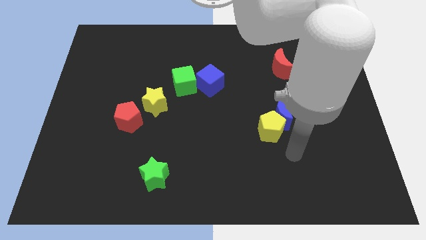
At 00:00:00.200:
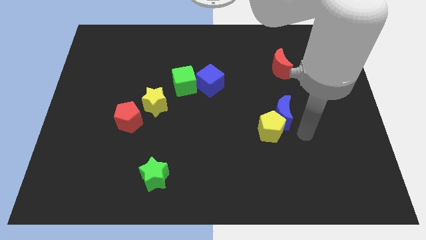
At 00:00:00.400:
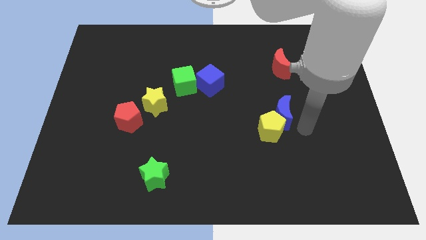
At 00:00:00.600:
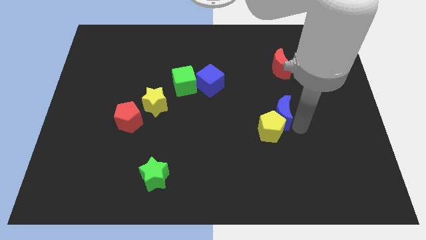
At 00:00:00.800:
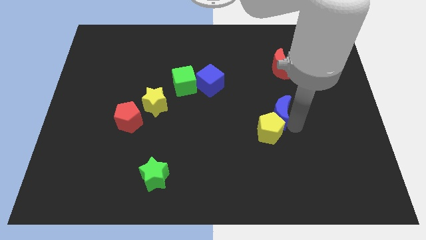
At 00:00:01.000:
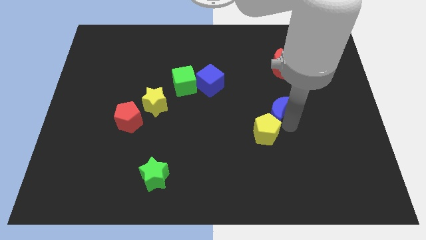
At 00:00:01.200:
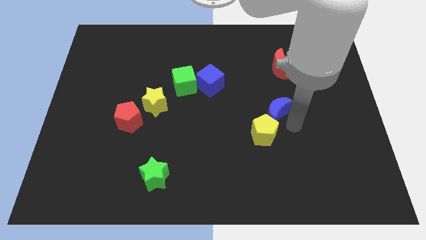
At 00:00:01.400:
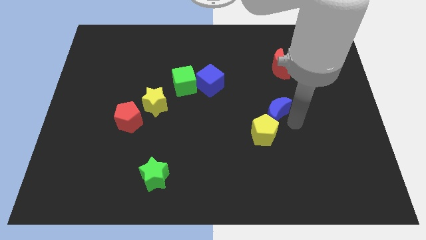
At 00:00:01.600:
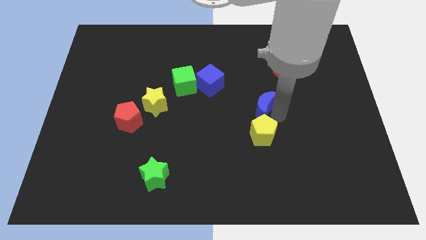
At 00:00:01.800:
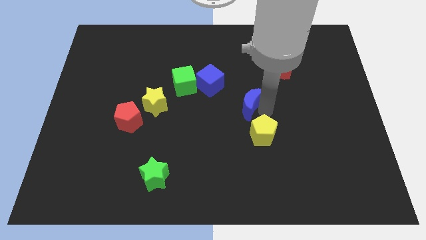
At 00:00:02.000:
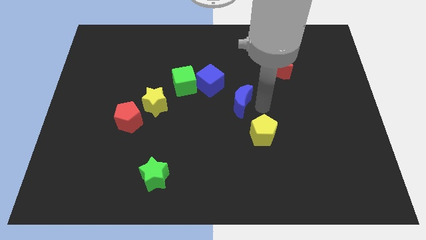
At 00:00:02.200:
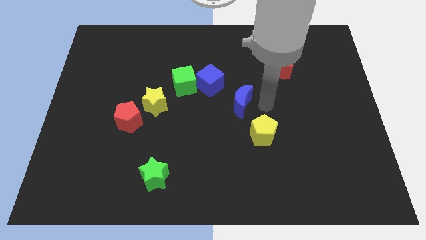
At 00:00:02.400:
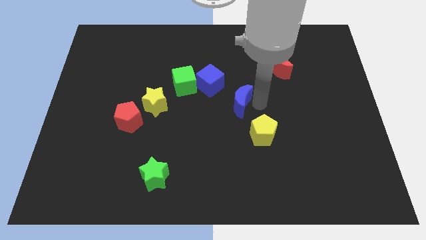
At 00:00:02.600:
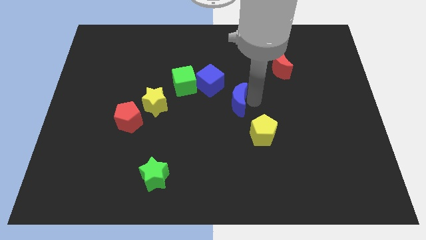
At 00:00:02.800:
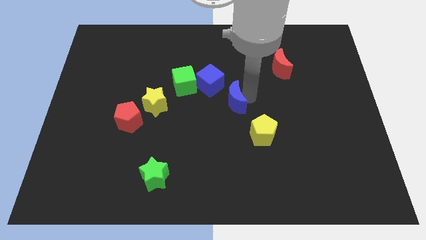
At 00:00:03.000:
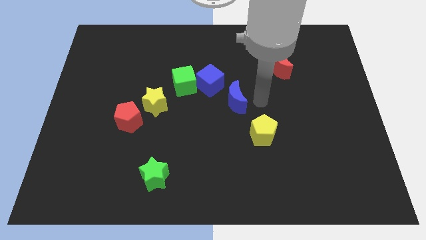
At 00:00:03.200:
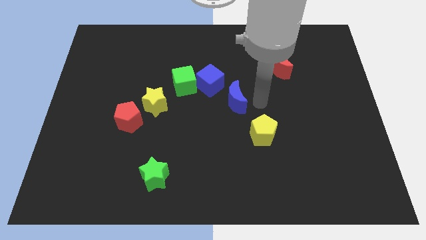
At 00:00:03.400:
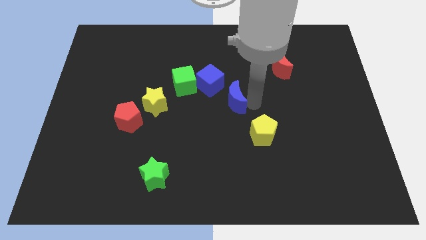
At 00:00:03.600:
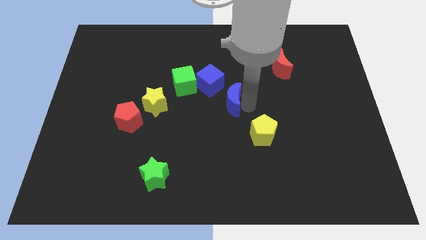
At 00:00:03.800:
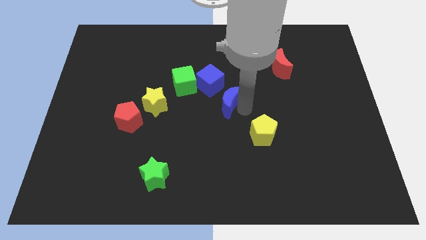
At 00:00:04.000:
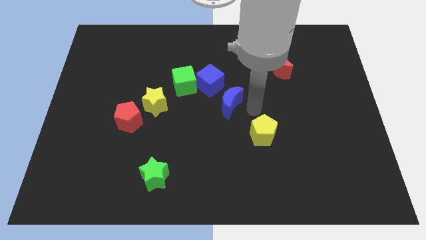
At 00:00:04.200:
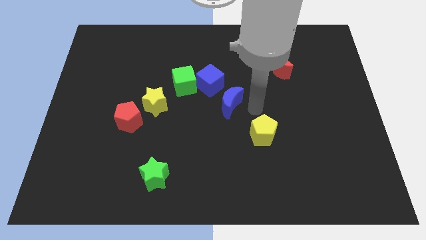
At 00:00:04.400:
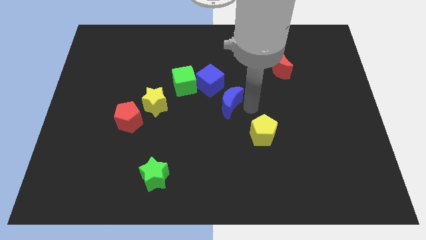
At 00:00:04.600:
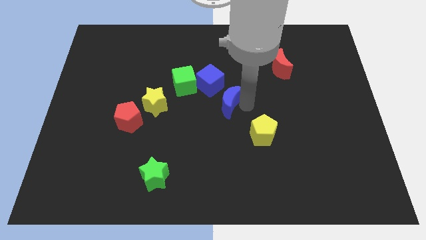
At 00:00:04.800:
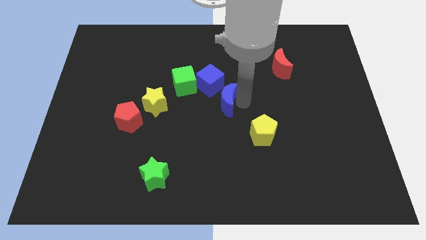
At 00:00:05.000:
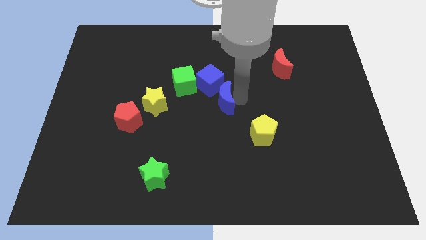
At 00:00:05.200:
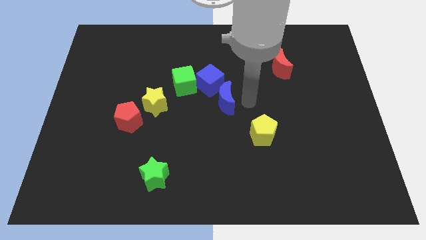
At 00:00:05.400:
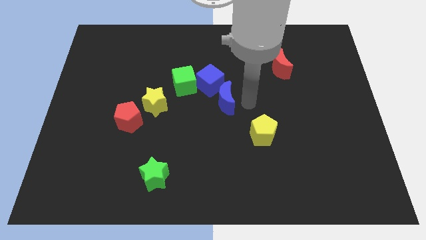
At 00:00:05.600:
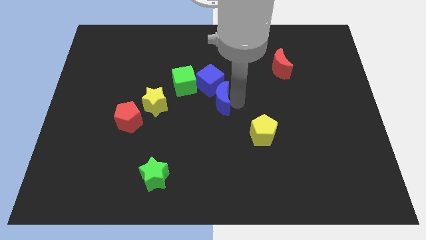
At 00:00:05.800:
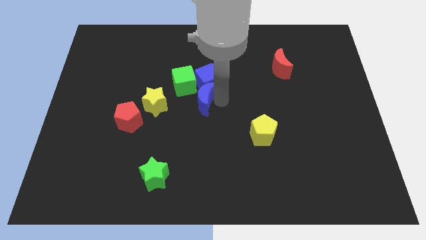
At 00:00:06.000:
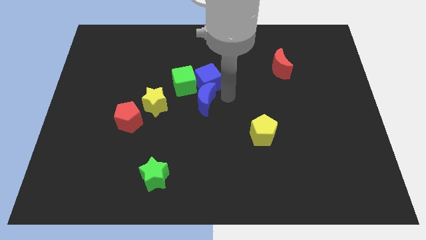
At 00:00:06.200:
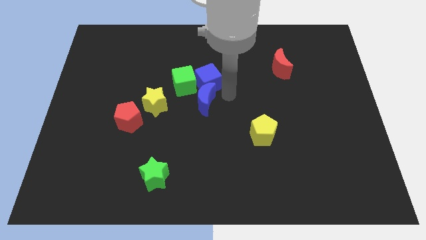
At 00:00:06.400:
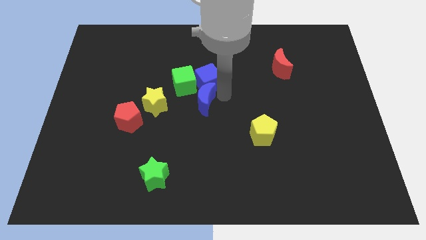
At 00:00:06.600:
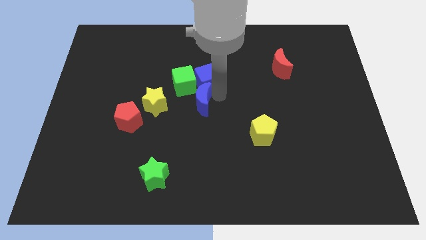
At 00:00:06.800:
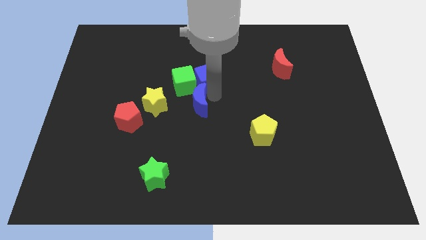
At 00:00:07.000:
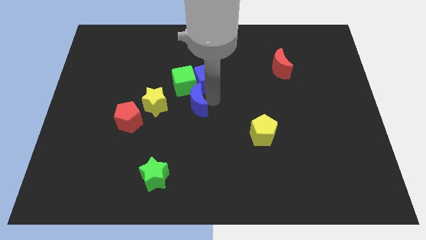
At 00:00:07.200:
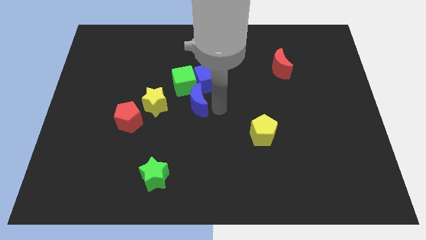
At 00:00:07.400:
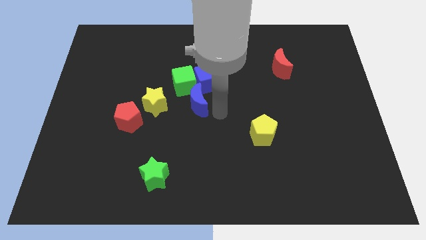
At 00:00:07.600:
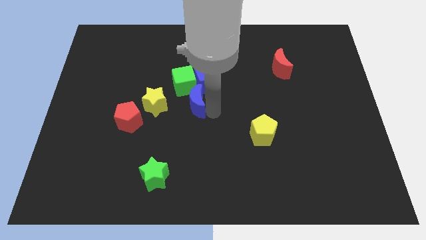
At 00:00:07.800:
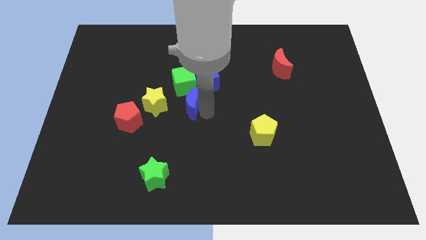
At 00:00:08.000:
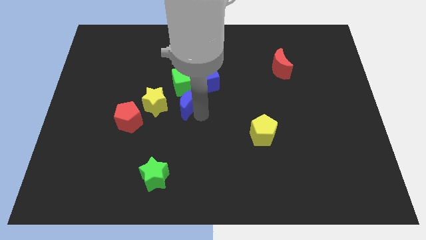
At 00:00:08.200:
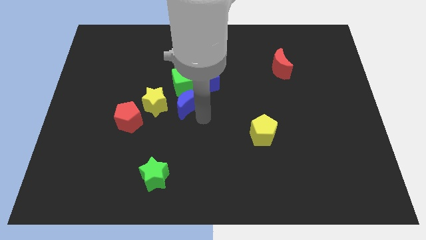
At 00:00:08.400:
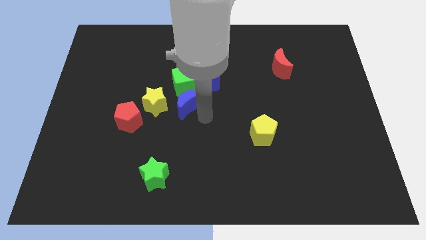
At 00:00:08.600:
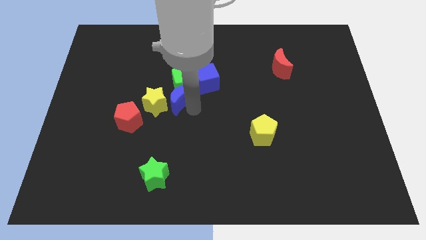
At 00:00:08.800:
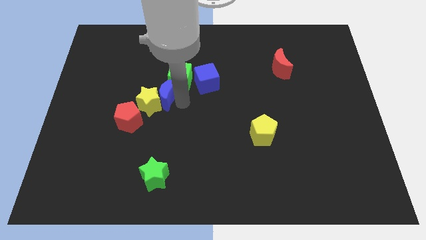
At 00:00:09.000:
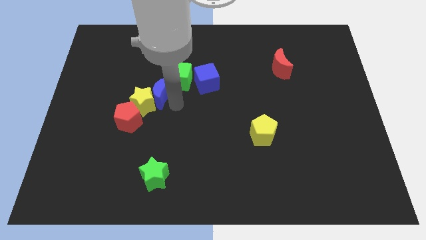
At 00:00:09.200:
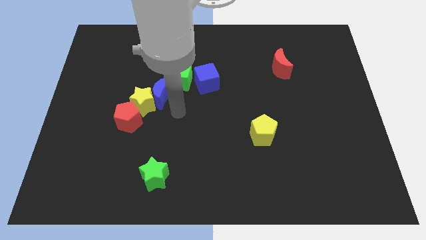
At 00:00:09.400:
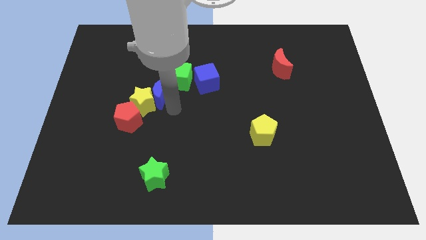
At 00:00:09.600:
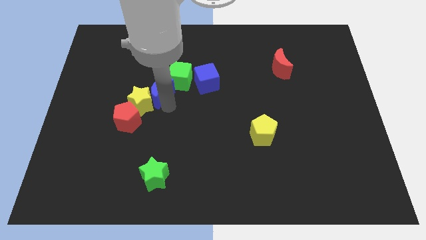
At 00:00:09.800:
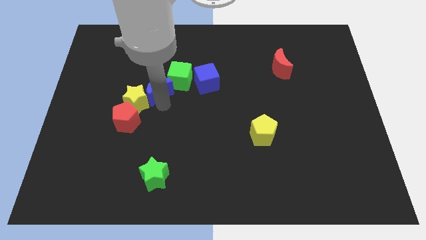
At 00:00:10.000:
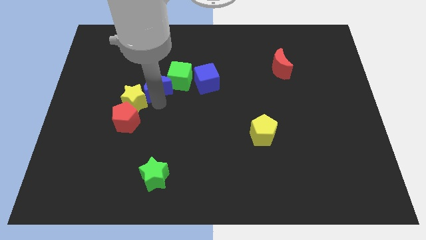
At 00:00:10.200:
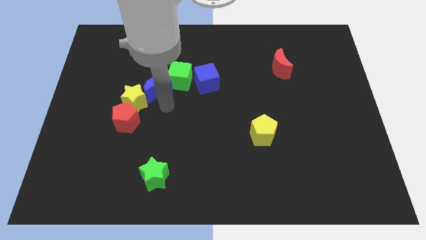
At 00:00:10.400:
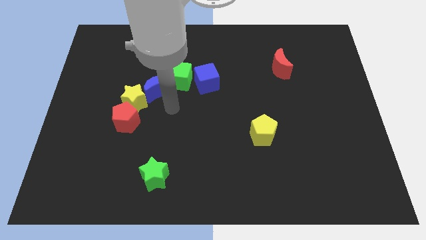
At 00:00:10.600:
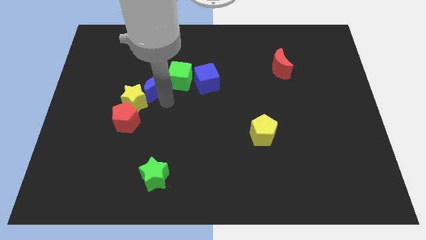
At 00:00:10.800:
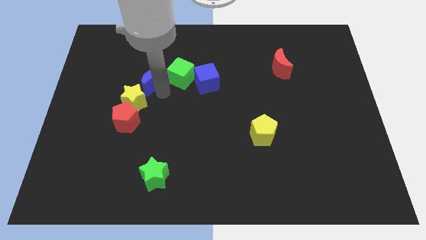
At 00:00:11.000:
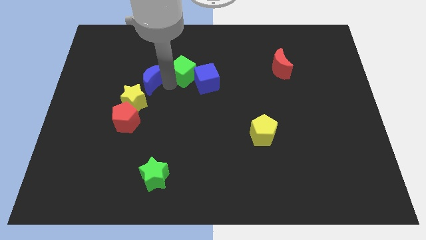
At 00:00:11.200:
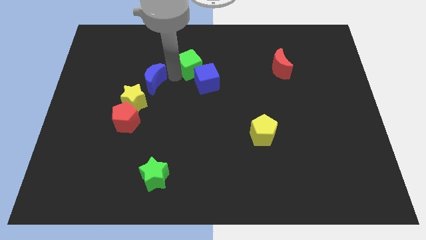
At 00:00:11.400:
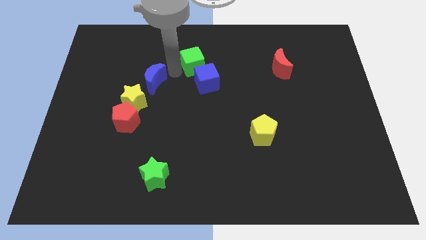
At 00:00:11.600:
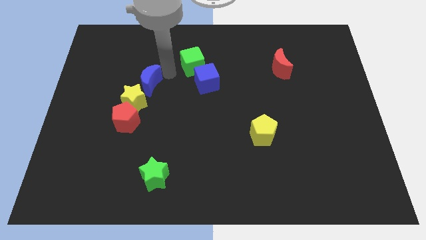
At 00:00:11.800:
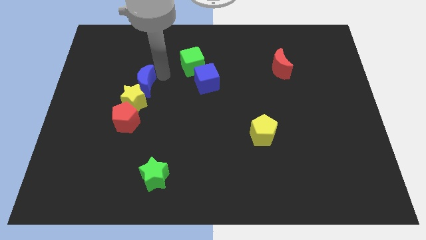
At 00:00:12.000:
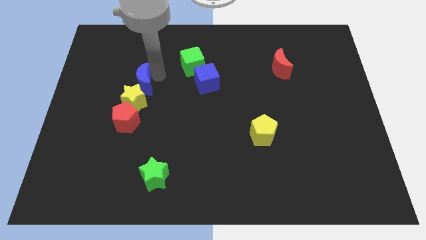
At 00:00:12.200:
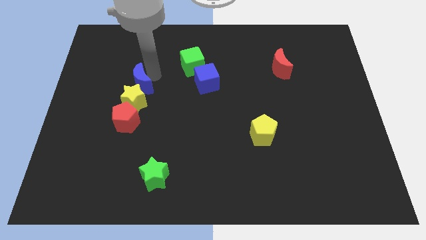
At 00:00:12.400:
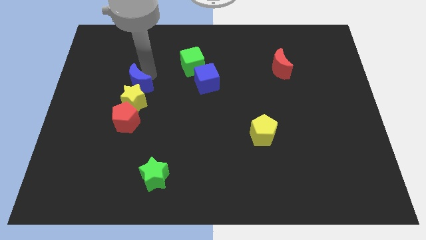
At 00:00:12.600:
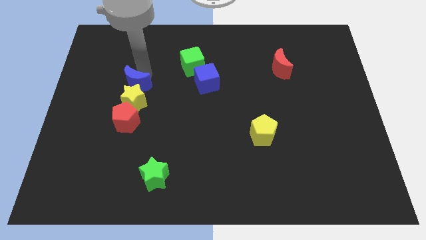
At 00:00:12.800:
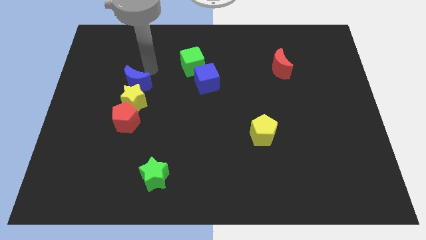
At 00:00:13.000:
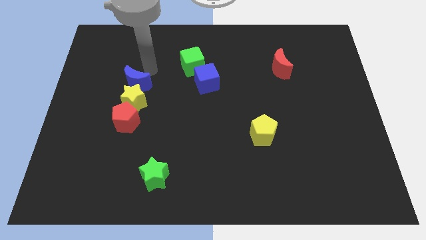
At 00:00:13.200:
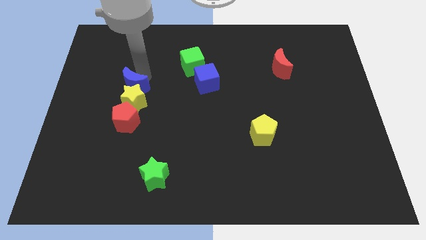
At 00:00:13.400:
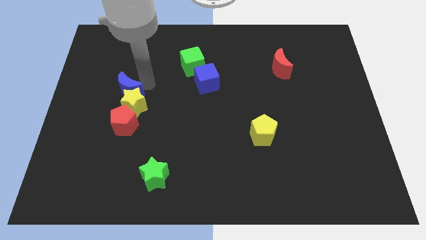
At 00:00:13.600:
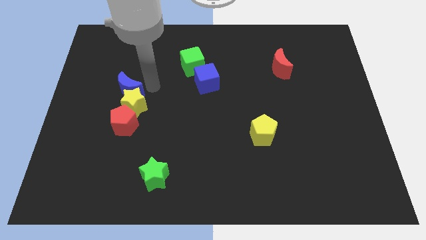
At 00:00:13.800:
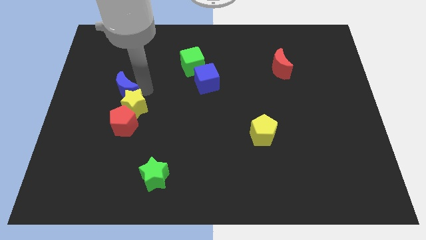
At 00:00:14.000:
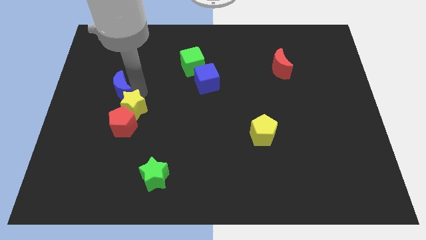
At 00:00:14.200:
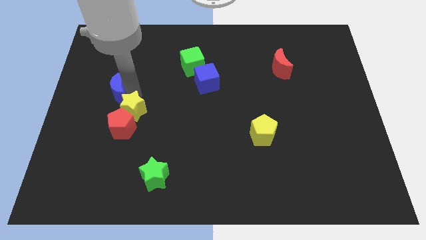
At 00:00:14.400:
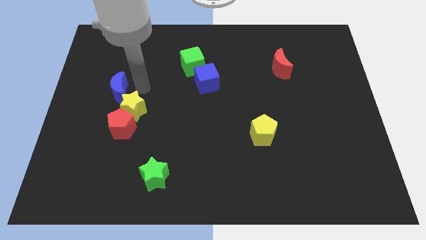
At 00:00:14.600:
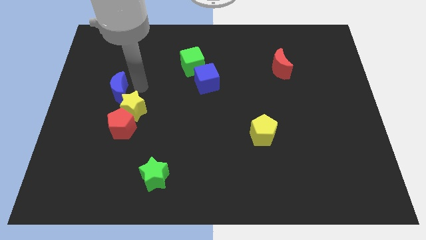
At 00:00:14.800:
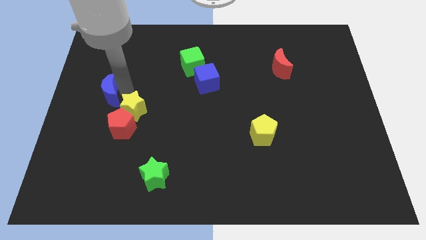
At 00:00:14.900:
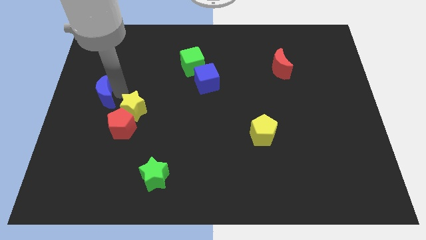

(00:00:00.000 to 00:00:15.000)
put the blue moon to the center left
